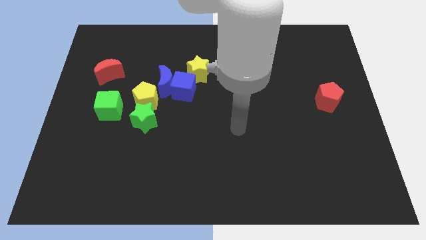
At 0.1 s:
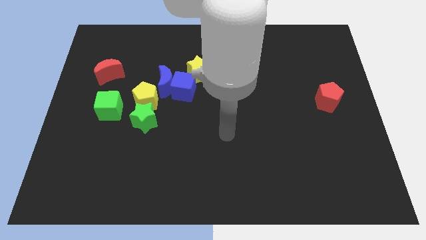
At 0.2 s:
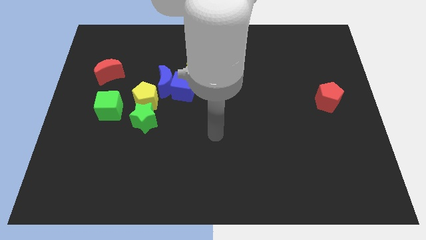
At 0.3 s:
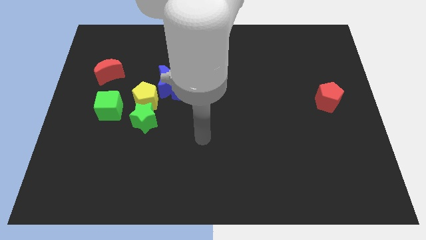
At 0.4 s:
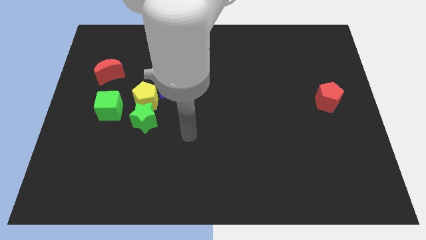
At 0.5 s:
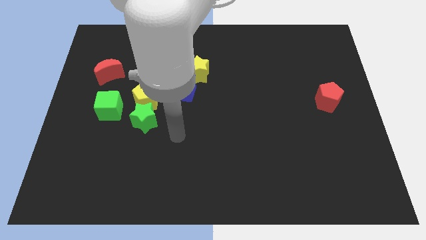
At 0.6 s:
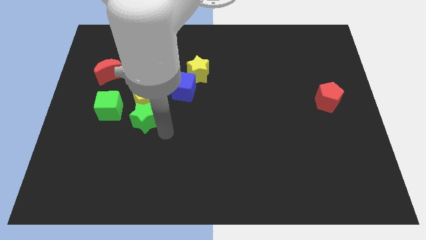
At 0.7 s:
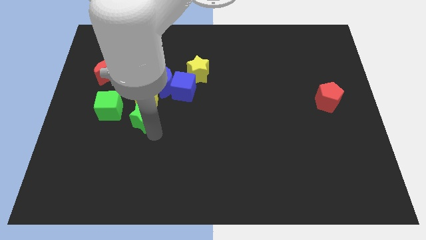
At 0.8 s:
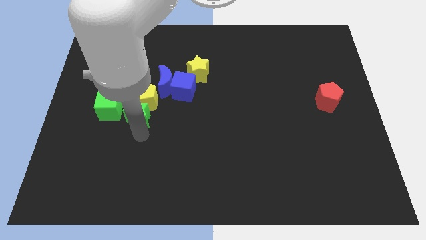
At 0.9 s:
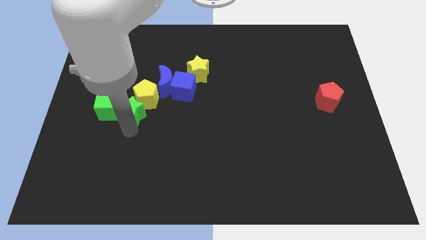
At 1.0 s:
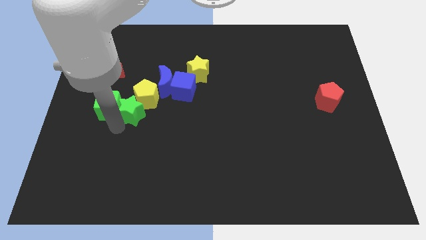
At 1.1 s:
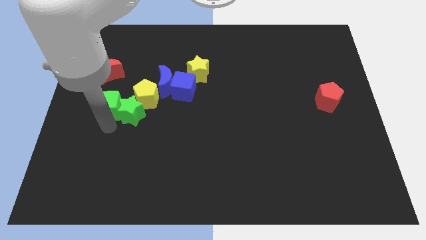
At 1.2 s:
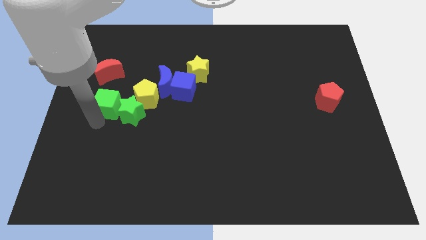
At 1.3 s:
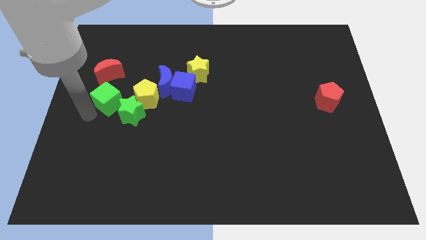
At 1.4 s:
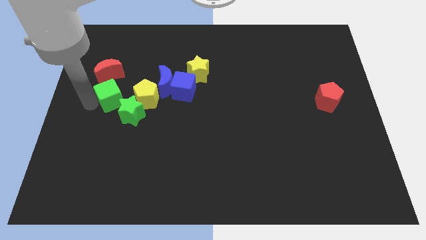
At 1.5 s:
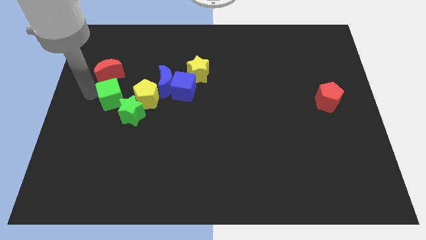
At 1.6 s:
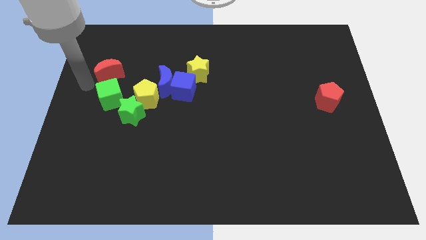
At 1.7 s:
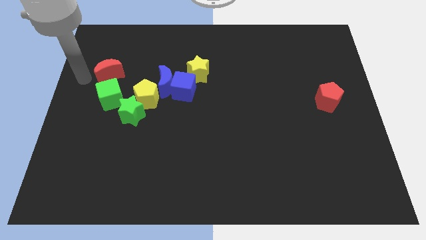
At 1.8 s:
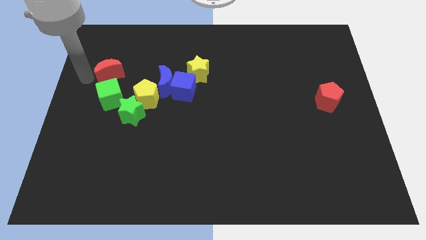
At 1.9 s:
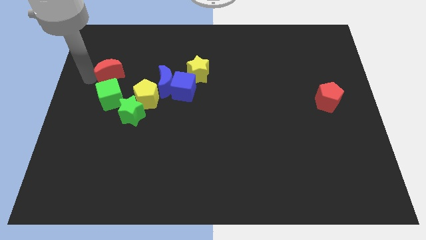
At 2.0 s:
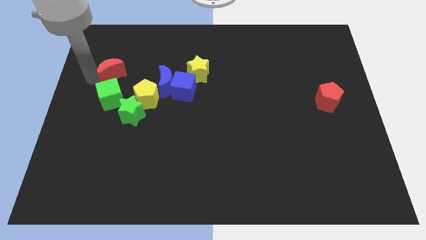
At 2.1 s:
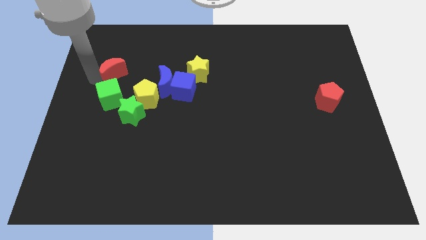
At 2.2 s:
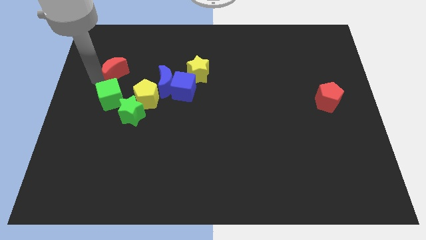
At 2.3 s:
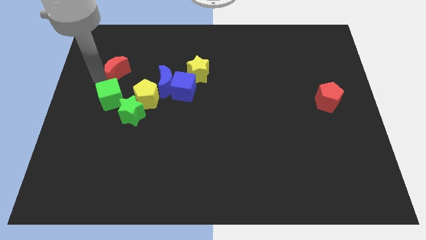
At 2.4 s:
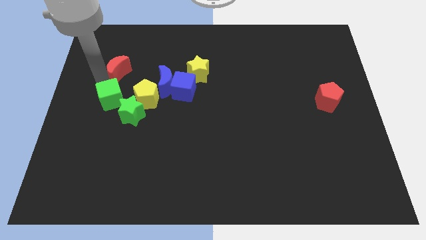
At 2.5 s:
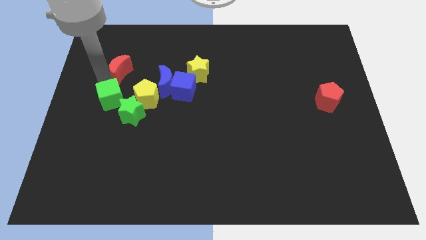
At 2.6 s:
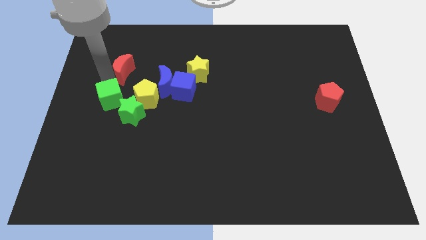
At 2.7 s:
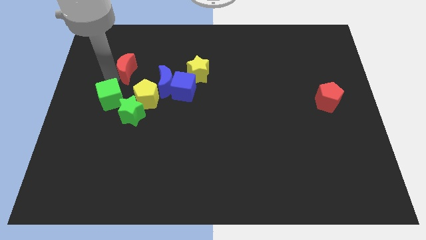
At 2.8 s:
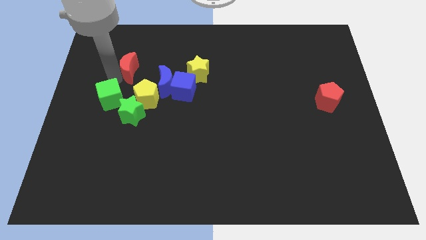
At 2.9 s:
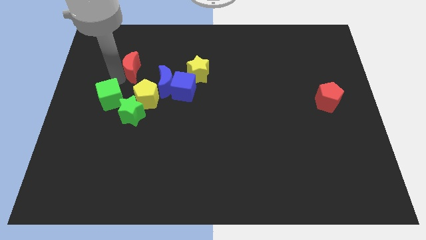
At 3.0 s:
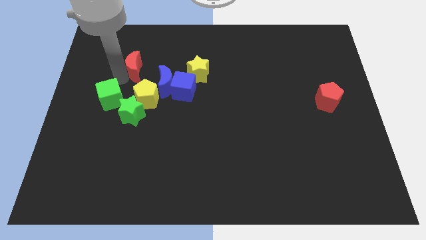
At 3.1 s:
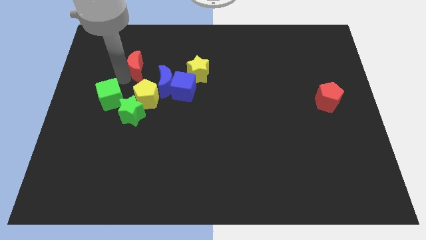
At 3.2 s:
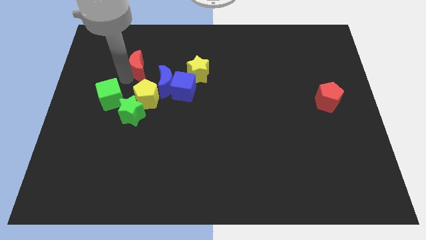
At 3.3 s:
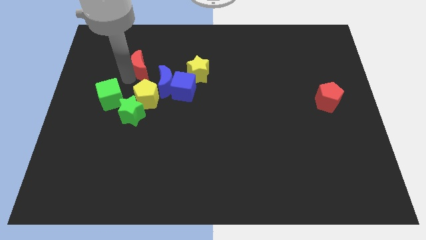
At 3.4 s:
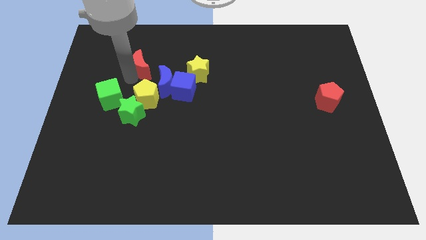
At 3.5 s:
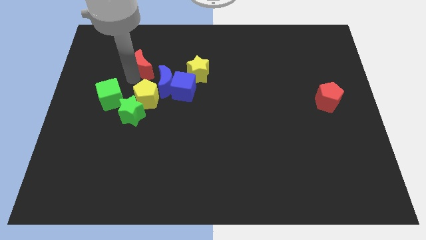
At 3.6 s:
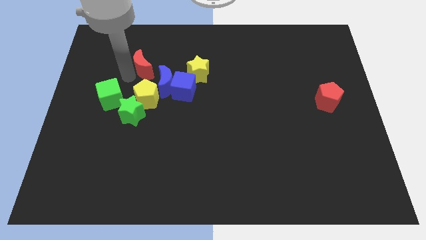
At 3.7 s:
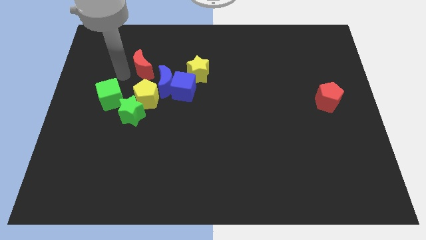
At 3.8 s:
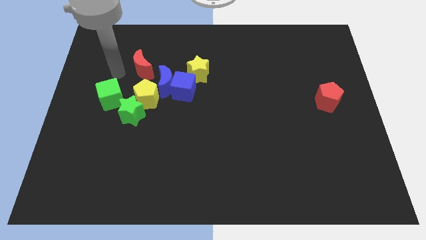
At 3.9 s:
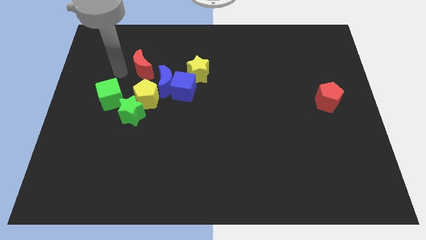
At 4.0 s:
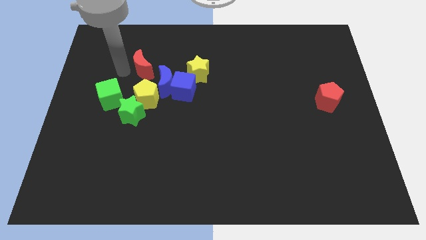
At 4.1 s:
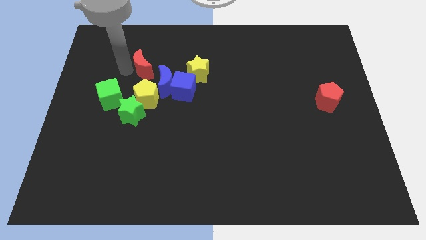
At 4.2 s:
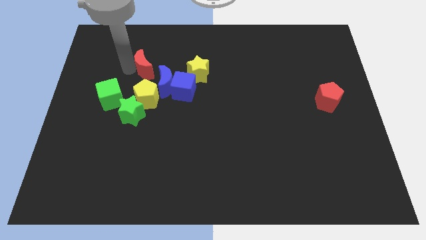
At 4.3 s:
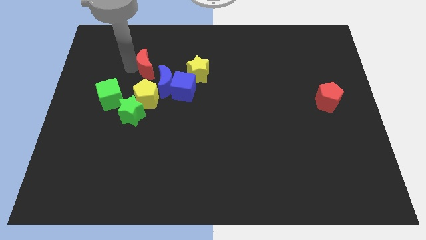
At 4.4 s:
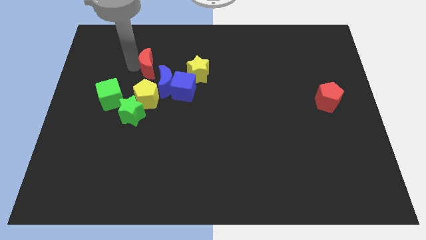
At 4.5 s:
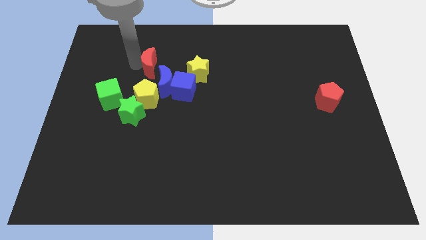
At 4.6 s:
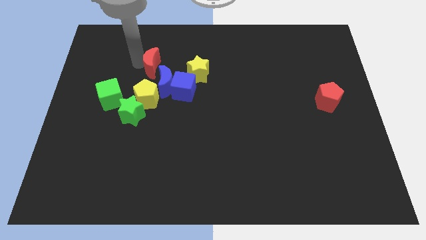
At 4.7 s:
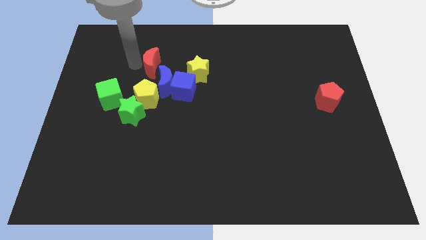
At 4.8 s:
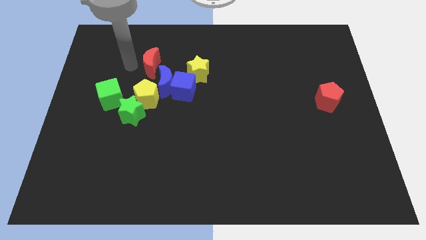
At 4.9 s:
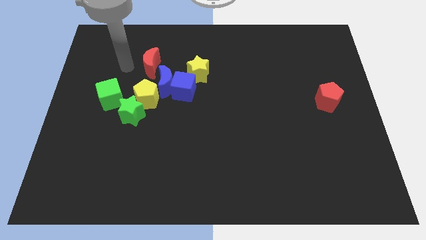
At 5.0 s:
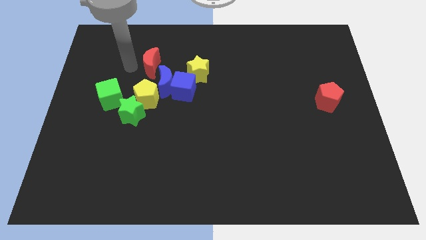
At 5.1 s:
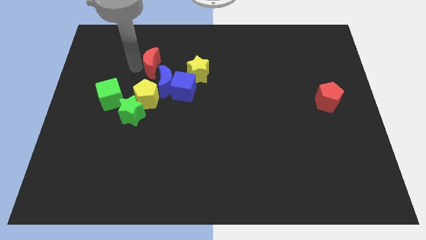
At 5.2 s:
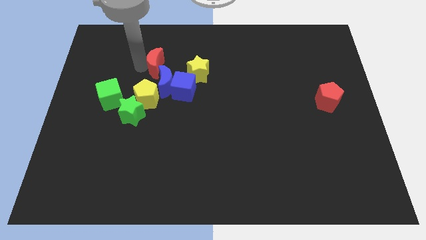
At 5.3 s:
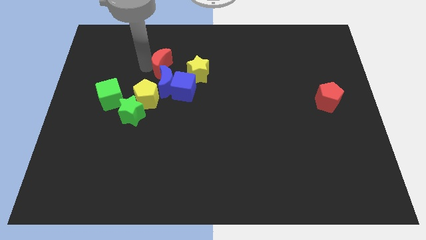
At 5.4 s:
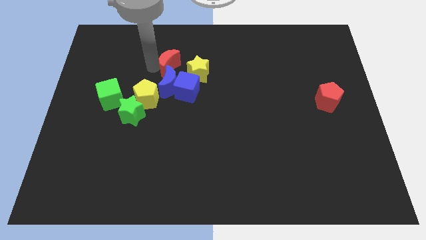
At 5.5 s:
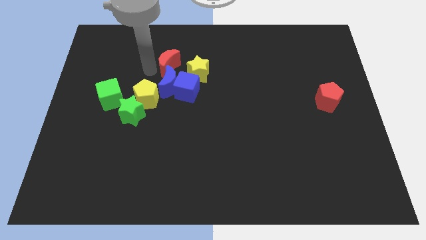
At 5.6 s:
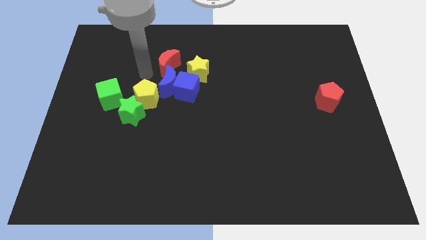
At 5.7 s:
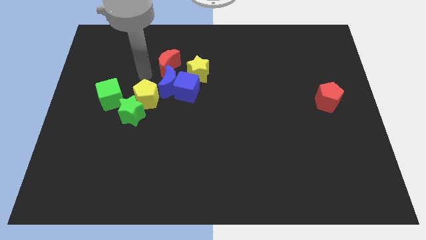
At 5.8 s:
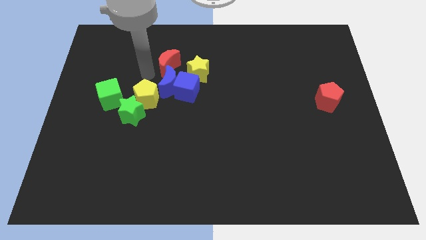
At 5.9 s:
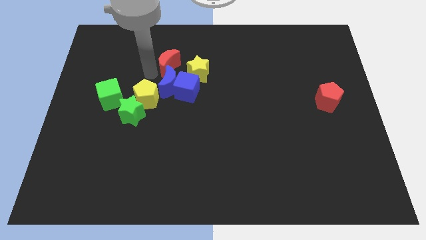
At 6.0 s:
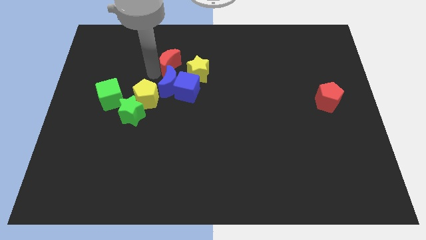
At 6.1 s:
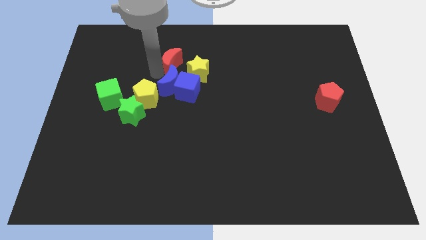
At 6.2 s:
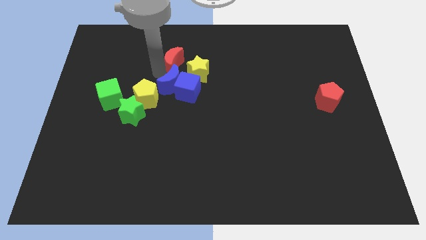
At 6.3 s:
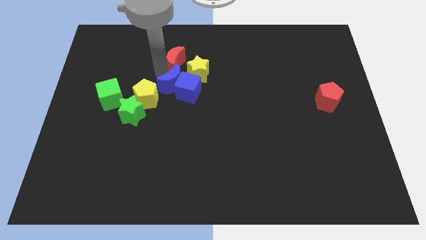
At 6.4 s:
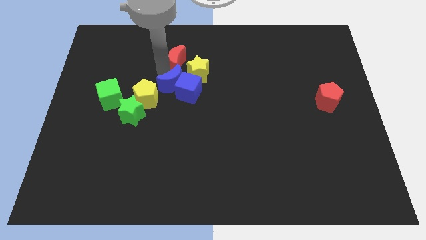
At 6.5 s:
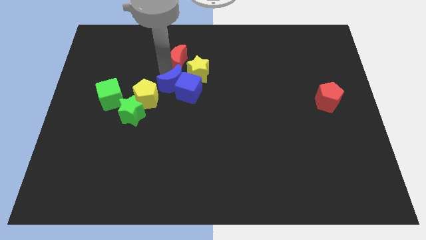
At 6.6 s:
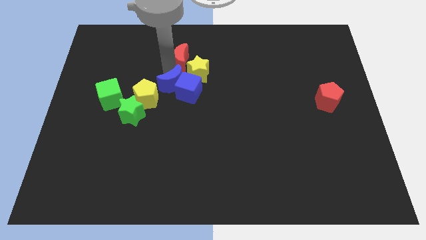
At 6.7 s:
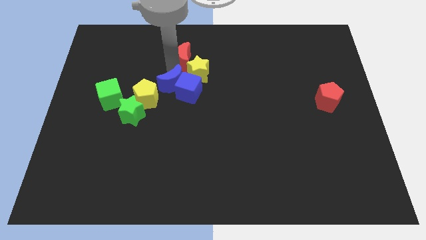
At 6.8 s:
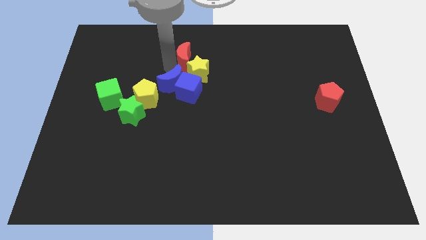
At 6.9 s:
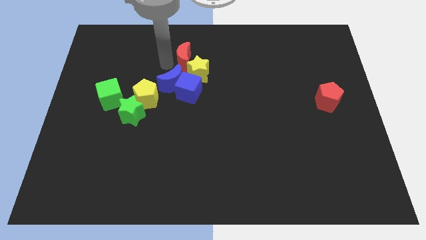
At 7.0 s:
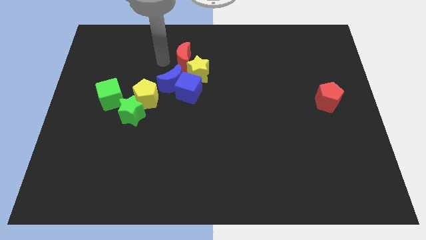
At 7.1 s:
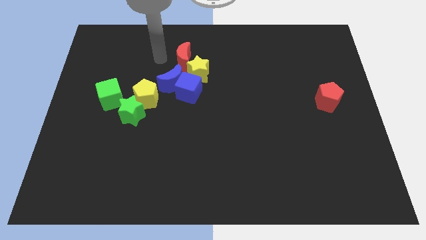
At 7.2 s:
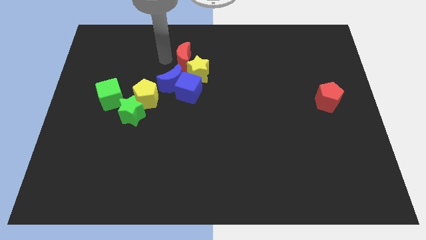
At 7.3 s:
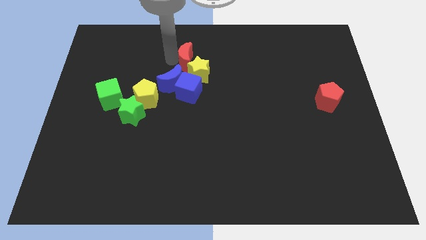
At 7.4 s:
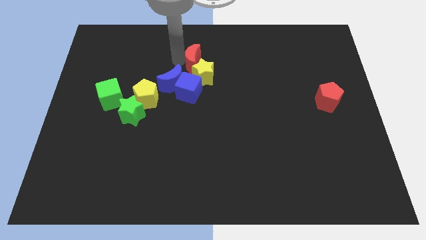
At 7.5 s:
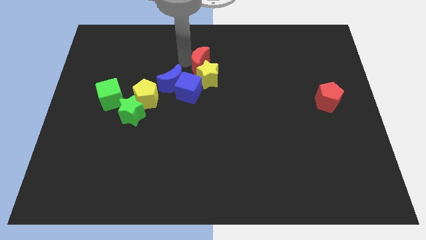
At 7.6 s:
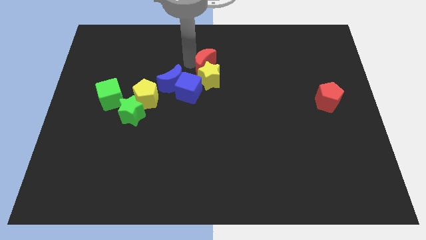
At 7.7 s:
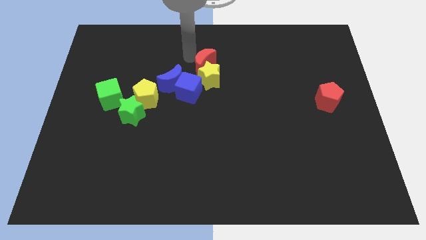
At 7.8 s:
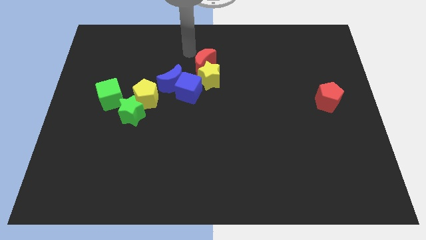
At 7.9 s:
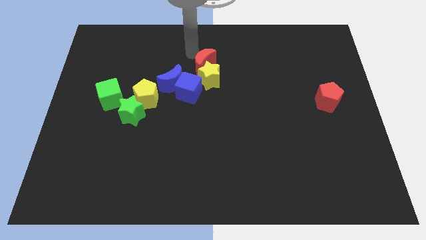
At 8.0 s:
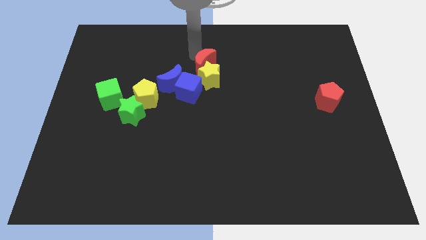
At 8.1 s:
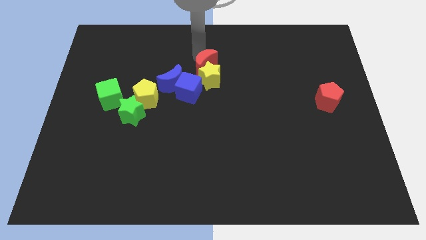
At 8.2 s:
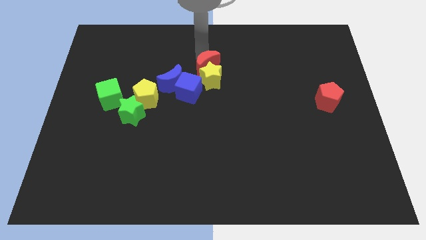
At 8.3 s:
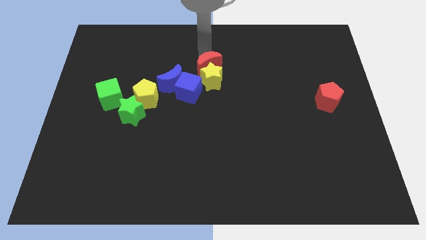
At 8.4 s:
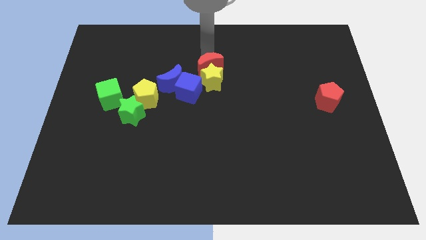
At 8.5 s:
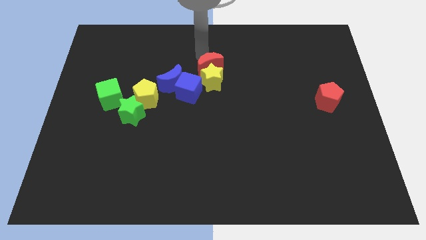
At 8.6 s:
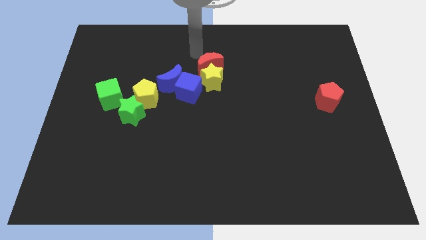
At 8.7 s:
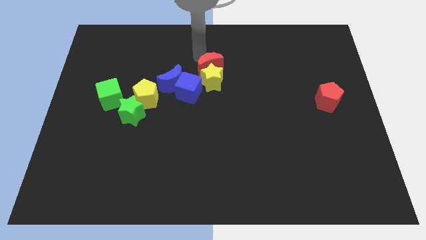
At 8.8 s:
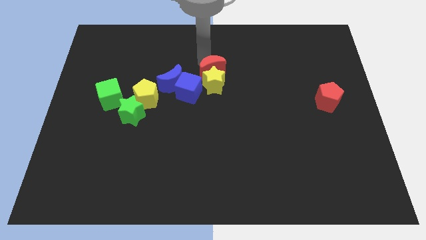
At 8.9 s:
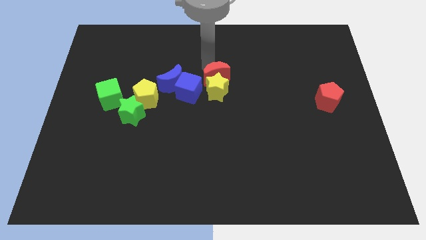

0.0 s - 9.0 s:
push the red moon to the right of the blue cube
